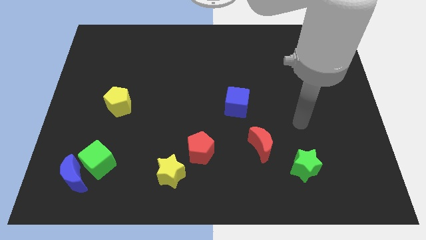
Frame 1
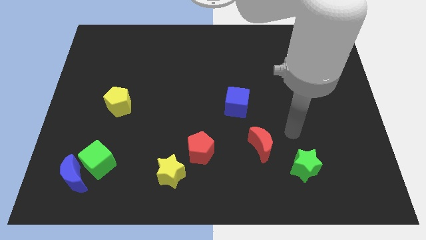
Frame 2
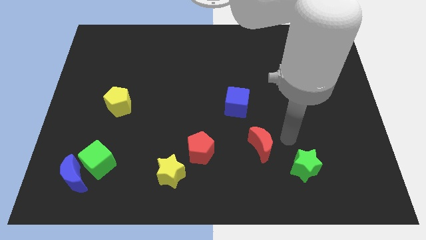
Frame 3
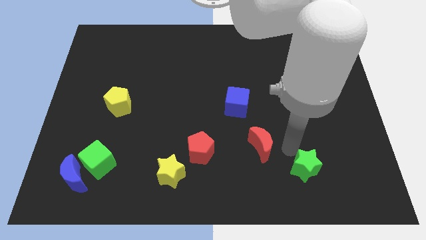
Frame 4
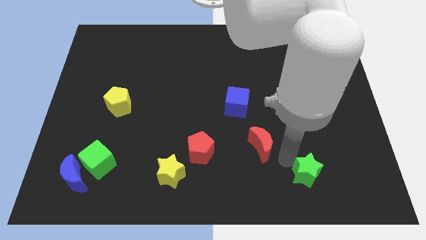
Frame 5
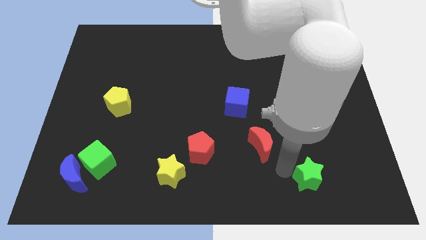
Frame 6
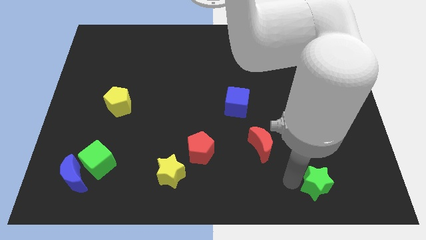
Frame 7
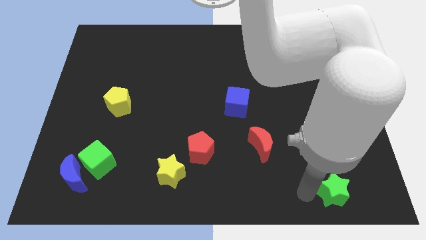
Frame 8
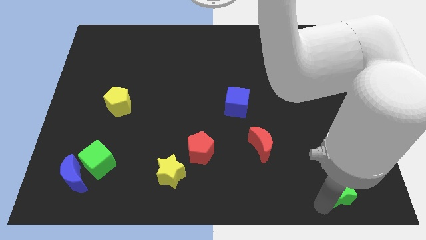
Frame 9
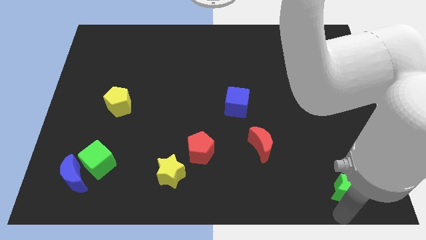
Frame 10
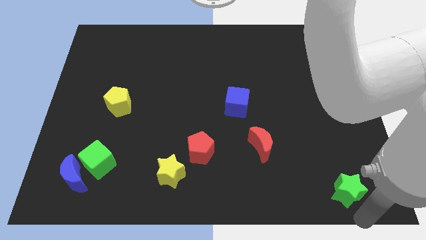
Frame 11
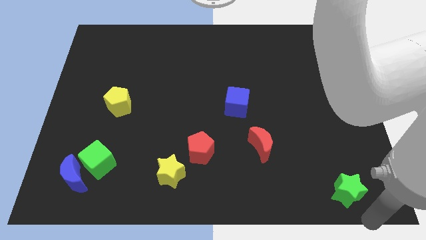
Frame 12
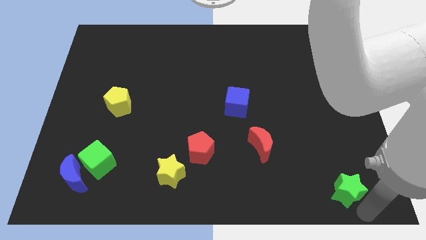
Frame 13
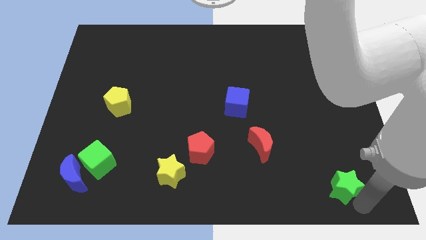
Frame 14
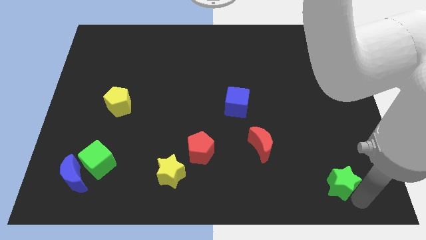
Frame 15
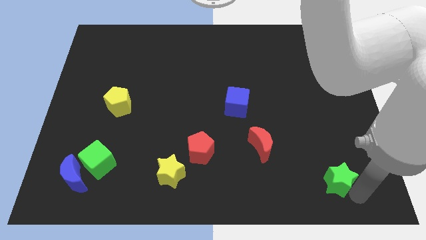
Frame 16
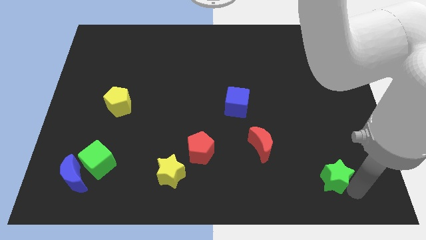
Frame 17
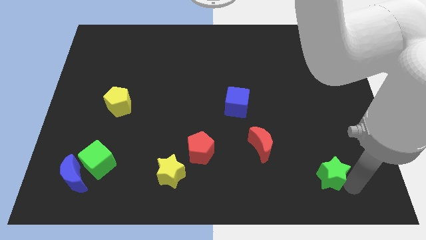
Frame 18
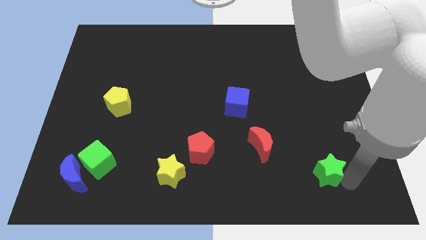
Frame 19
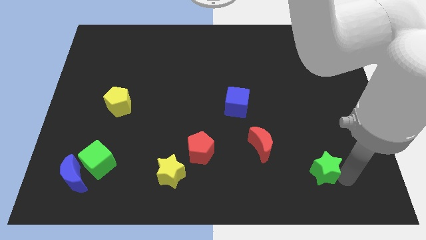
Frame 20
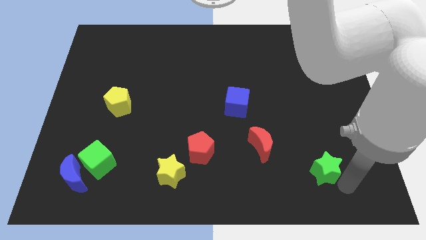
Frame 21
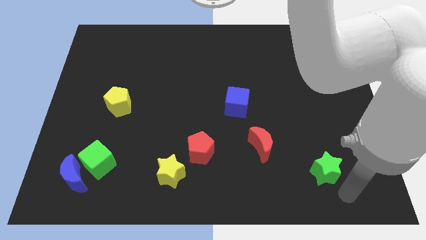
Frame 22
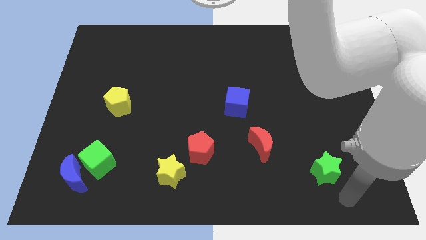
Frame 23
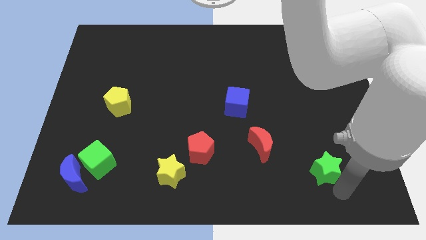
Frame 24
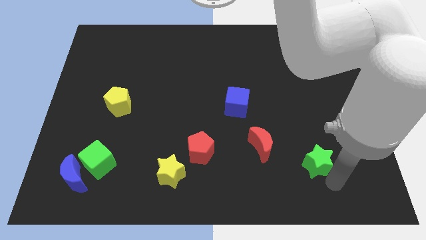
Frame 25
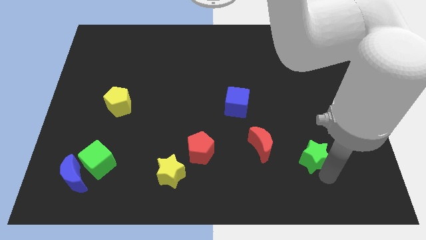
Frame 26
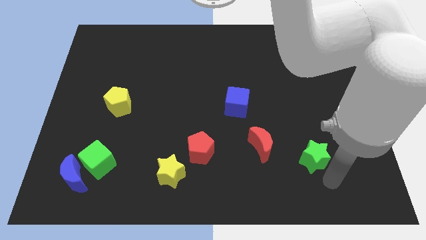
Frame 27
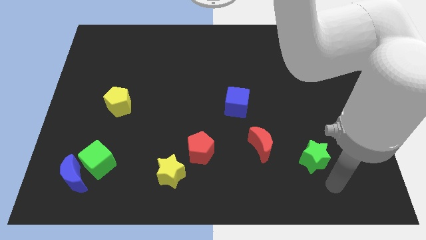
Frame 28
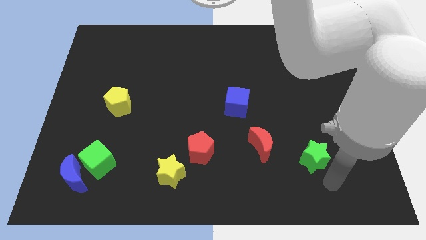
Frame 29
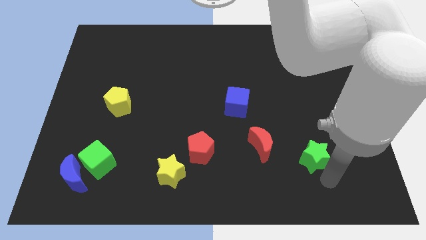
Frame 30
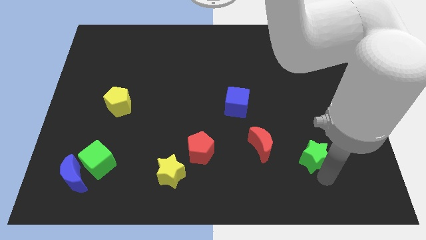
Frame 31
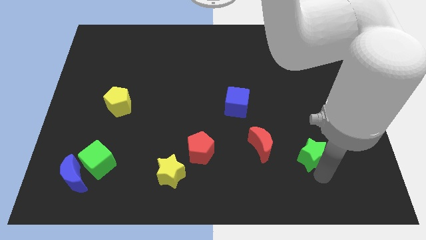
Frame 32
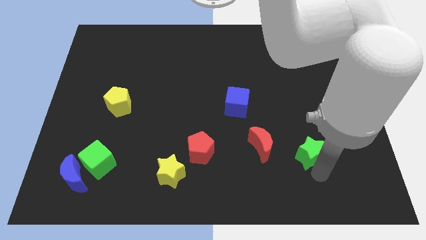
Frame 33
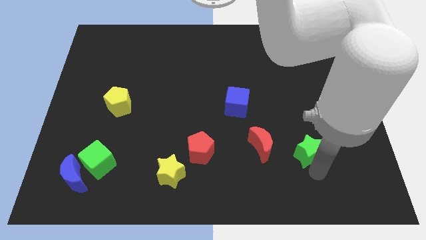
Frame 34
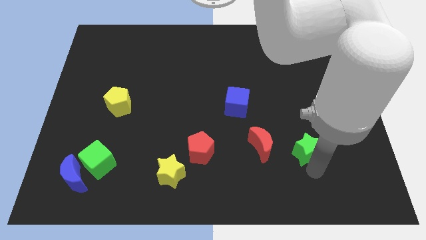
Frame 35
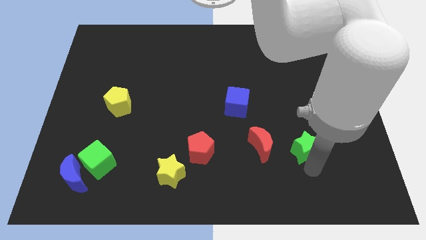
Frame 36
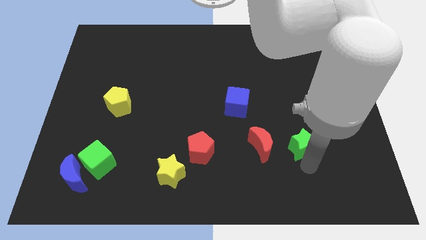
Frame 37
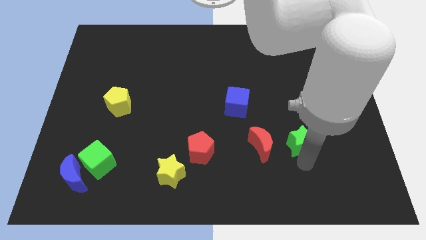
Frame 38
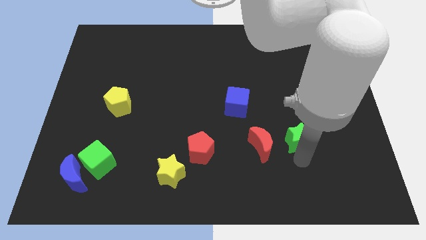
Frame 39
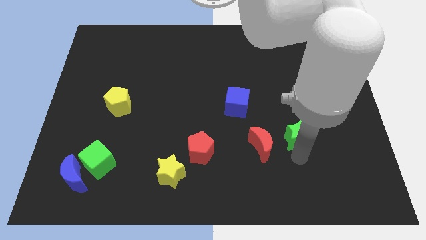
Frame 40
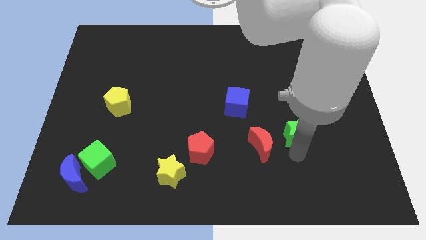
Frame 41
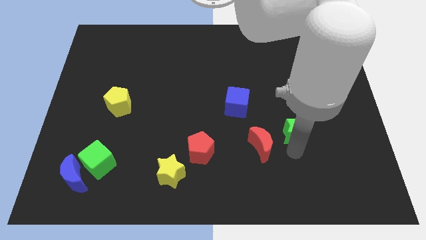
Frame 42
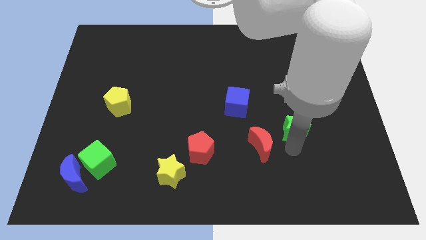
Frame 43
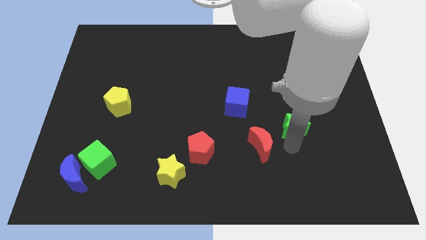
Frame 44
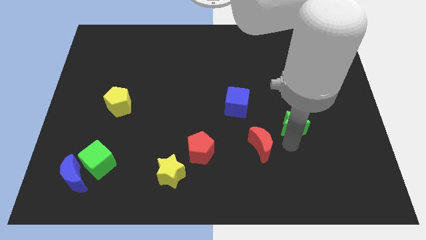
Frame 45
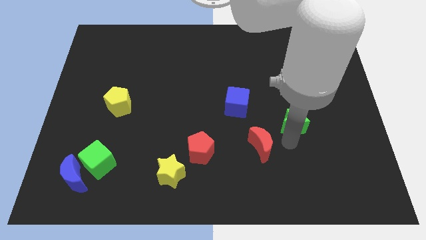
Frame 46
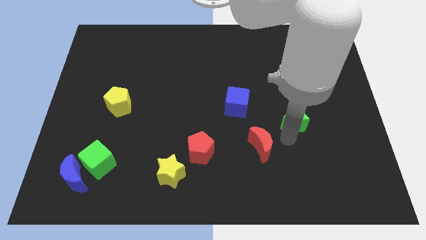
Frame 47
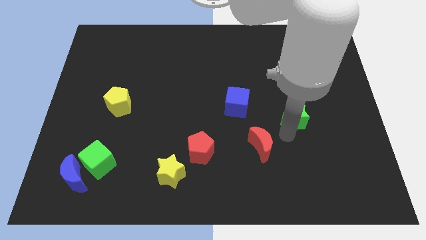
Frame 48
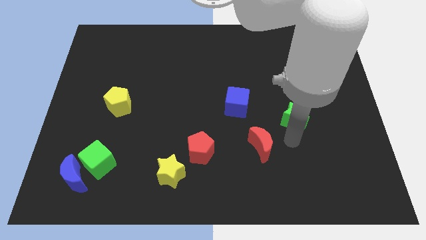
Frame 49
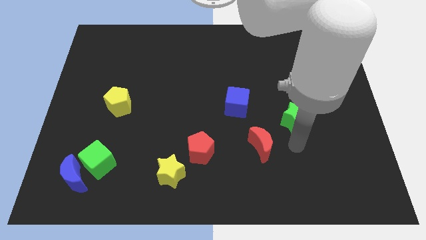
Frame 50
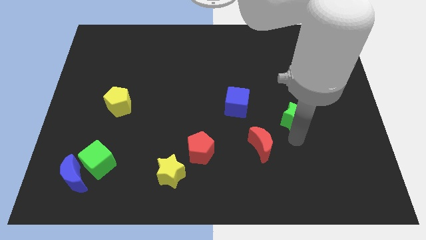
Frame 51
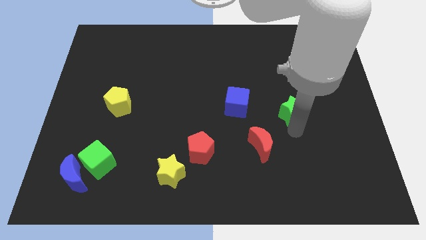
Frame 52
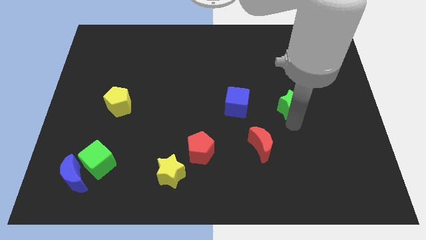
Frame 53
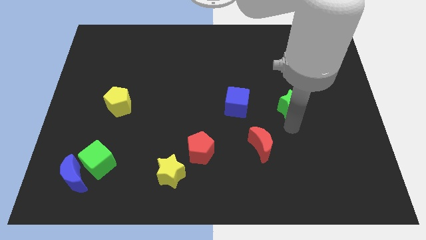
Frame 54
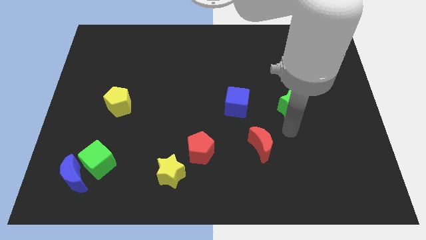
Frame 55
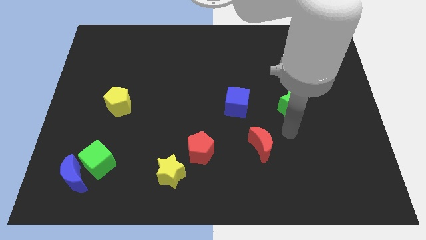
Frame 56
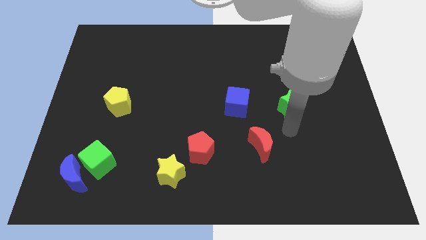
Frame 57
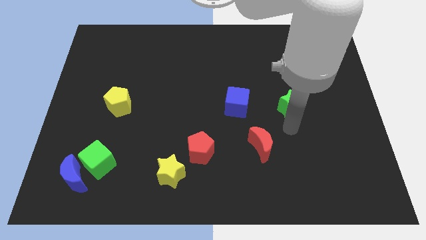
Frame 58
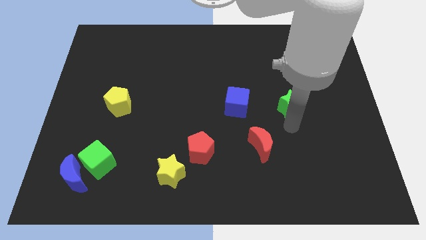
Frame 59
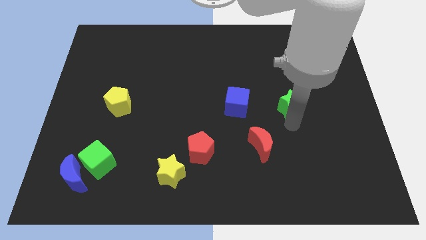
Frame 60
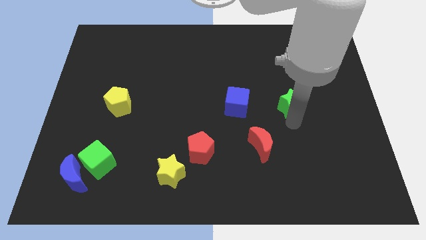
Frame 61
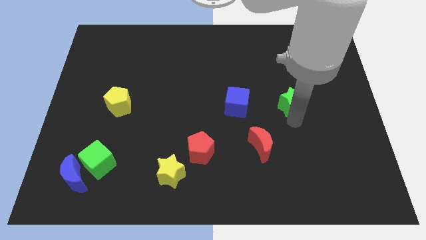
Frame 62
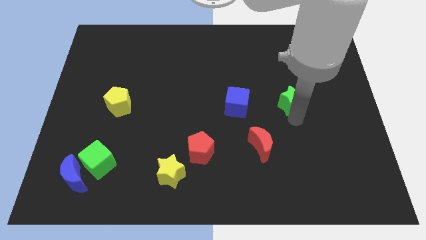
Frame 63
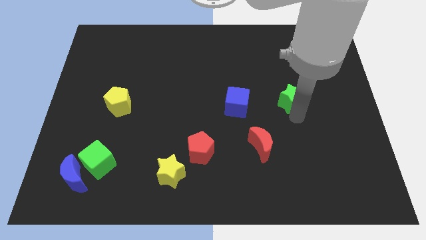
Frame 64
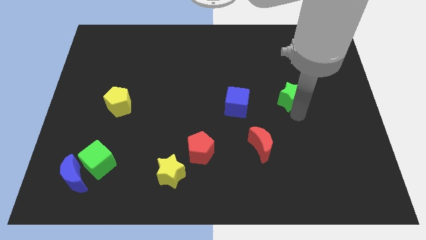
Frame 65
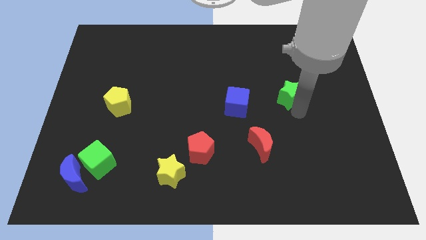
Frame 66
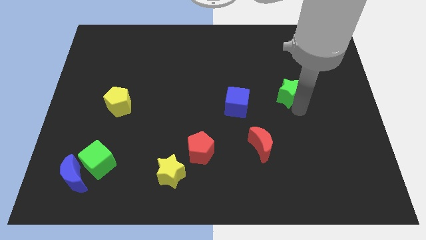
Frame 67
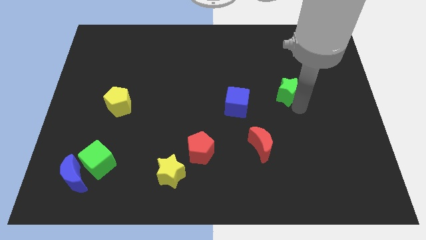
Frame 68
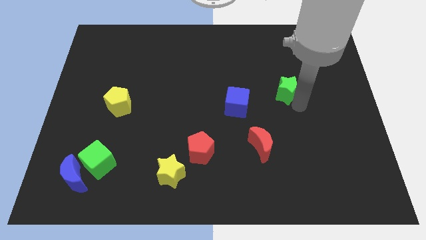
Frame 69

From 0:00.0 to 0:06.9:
push the green star up

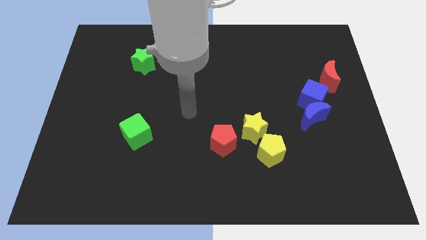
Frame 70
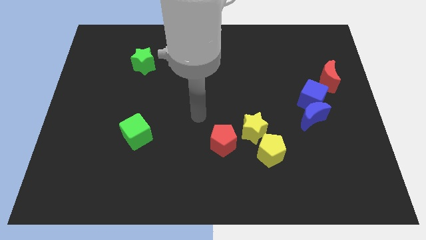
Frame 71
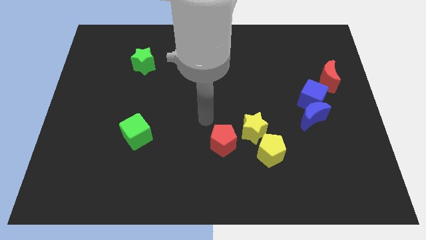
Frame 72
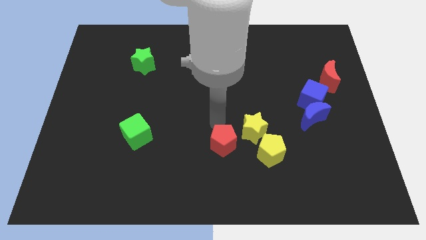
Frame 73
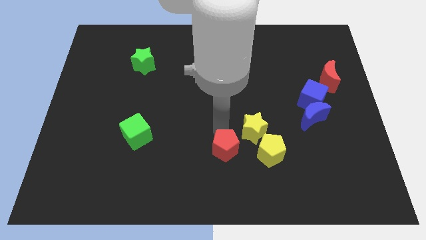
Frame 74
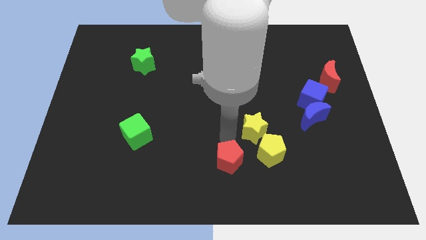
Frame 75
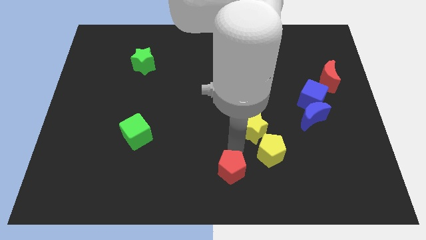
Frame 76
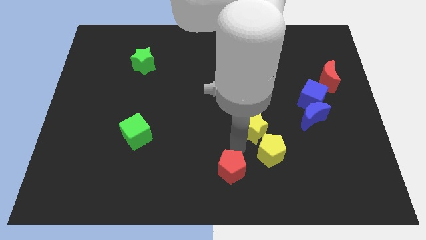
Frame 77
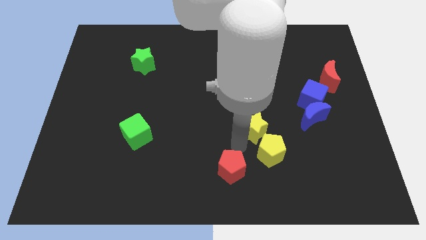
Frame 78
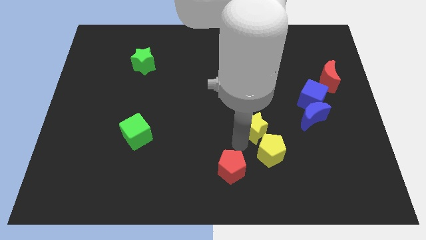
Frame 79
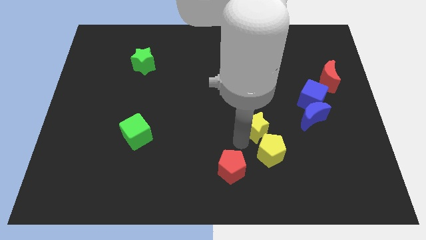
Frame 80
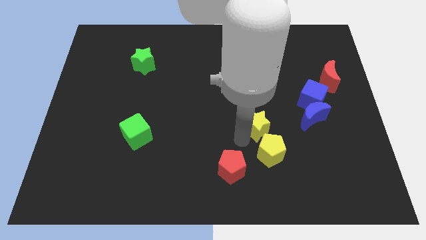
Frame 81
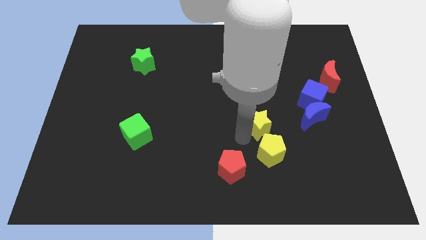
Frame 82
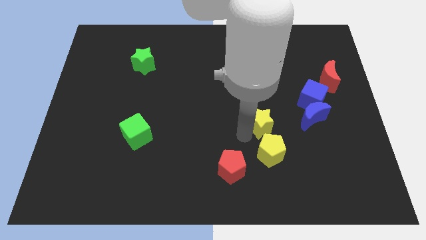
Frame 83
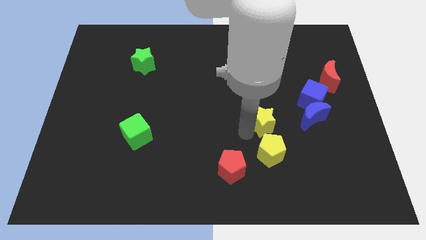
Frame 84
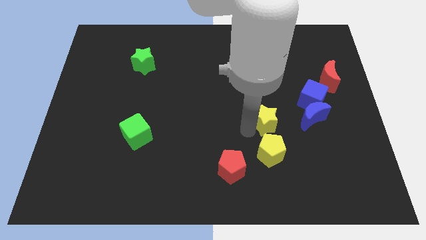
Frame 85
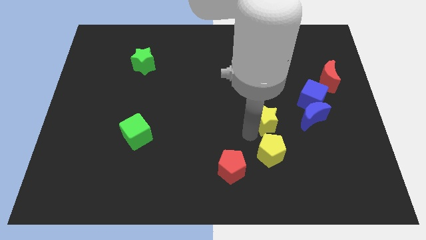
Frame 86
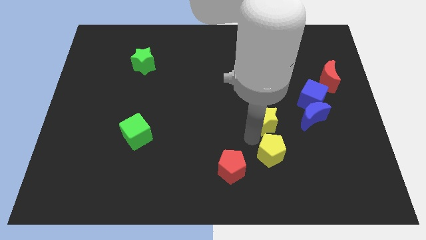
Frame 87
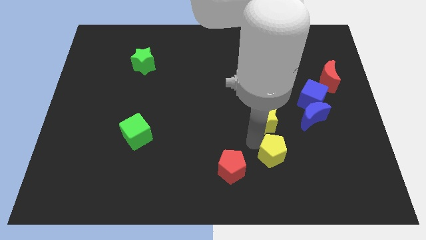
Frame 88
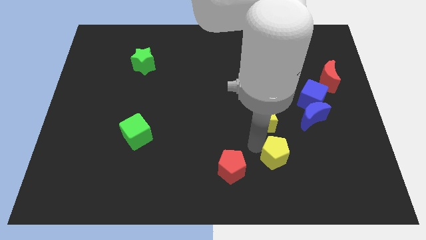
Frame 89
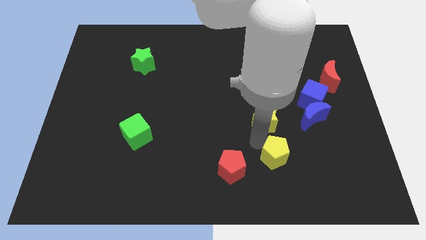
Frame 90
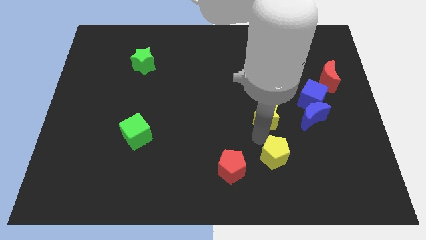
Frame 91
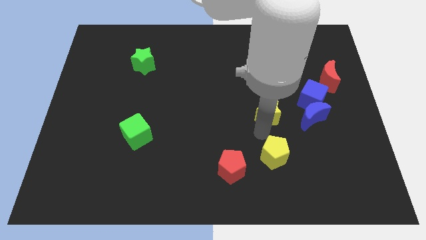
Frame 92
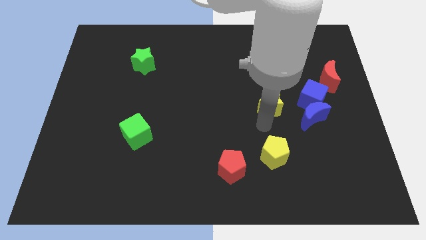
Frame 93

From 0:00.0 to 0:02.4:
slightly slide the yellow star up and right
